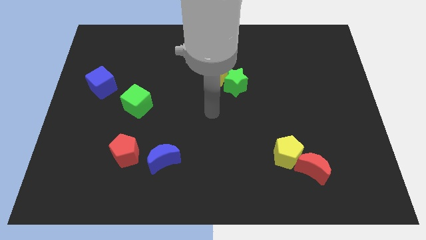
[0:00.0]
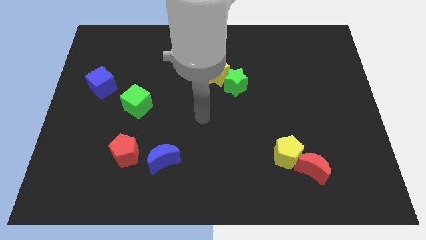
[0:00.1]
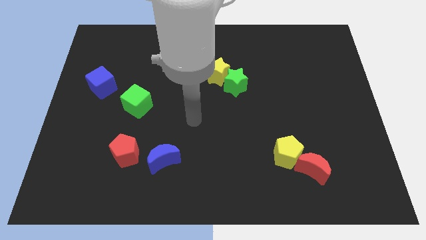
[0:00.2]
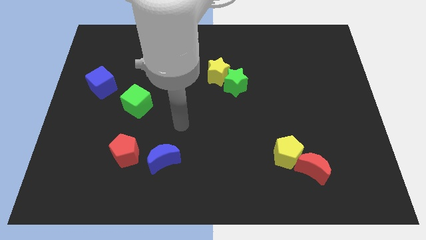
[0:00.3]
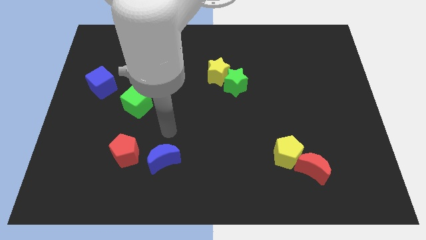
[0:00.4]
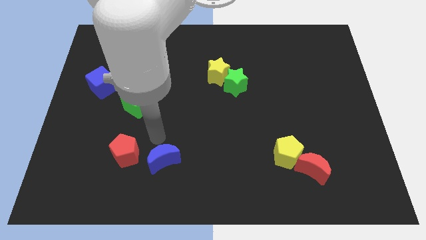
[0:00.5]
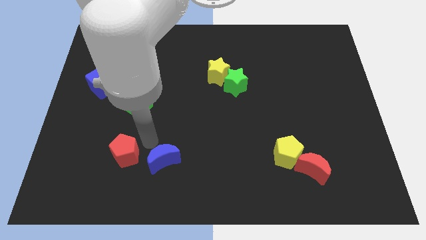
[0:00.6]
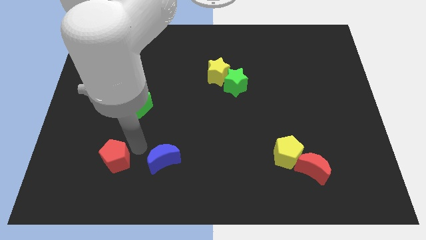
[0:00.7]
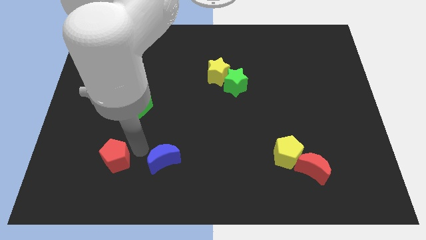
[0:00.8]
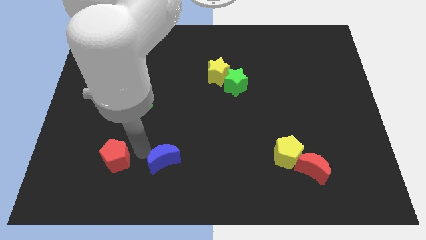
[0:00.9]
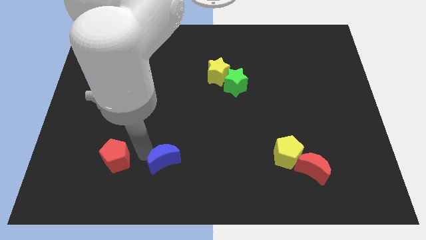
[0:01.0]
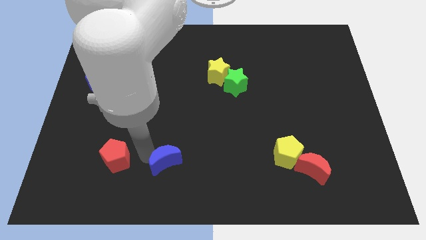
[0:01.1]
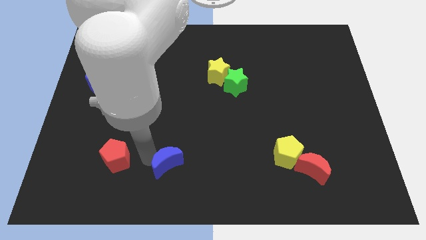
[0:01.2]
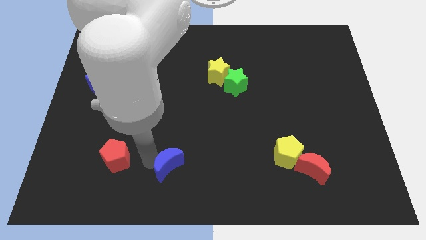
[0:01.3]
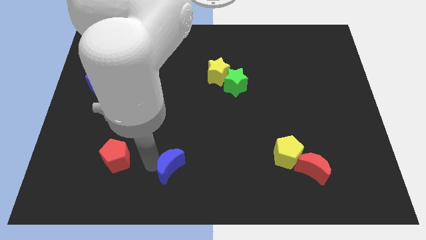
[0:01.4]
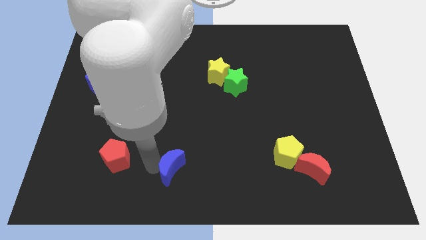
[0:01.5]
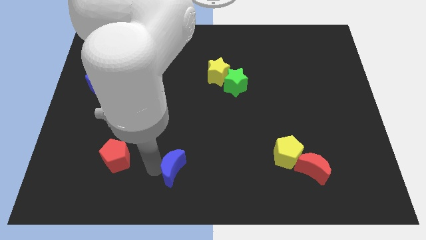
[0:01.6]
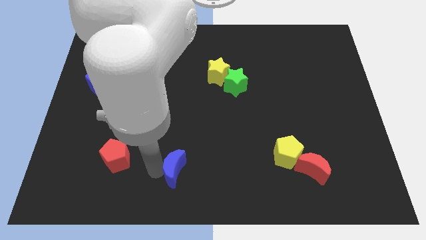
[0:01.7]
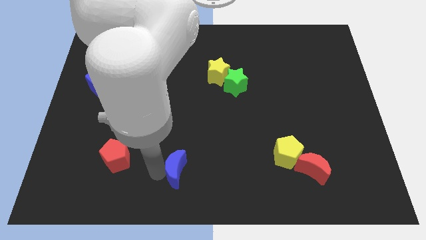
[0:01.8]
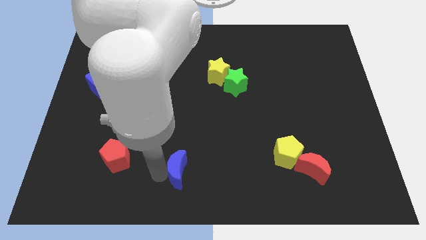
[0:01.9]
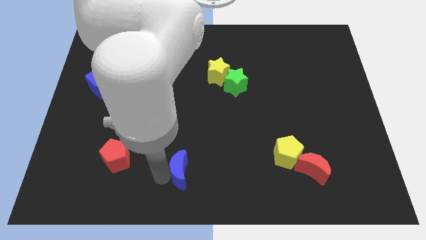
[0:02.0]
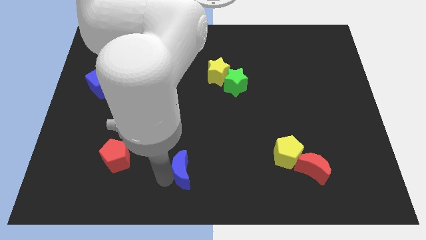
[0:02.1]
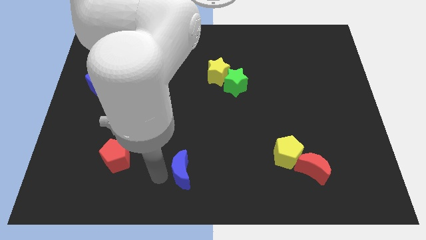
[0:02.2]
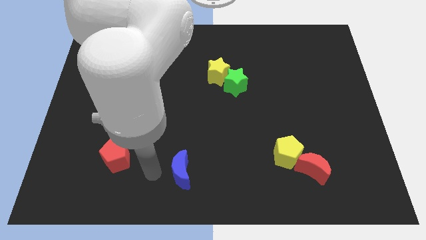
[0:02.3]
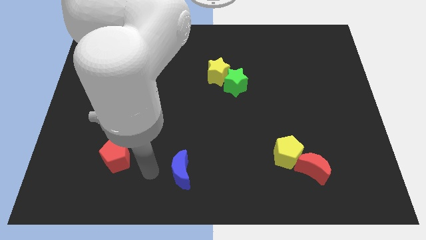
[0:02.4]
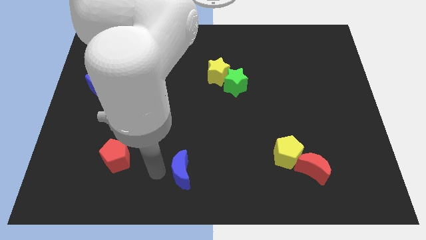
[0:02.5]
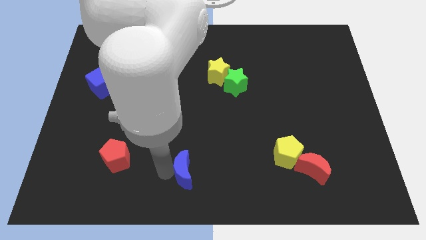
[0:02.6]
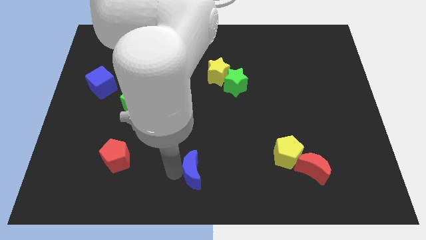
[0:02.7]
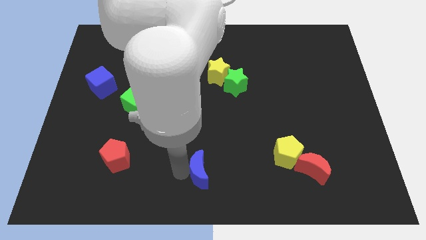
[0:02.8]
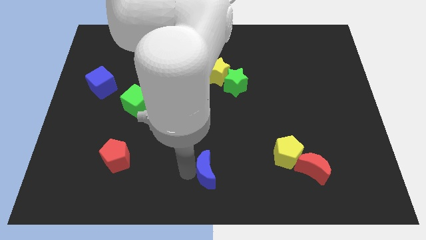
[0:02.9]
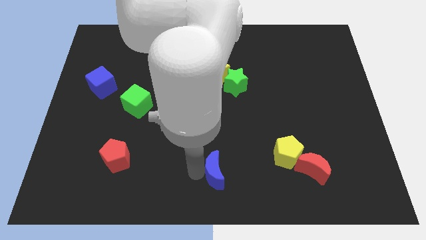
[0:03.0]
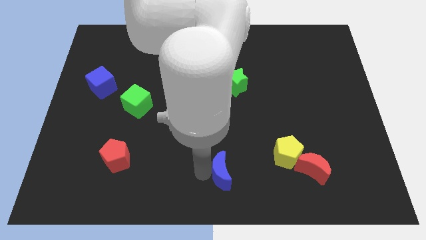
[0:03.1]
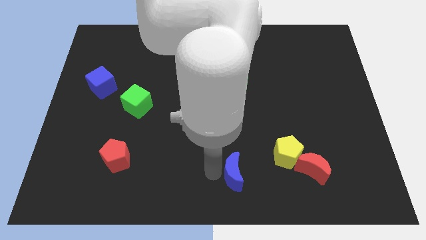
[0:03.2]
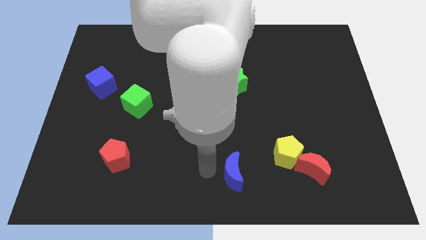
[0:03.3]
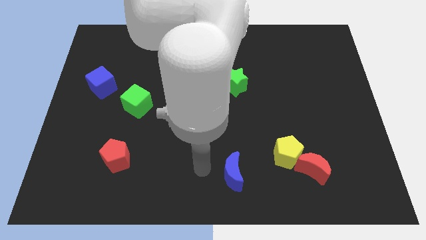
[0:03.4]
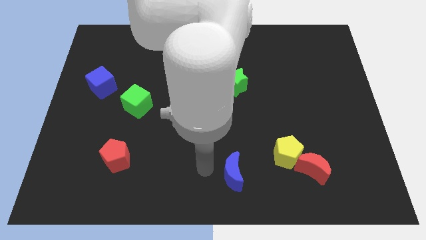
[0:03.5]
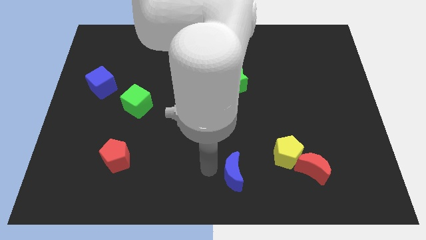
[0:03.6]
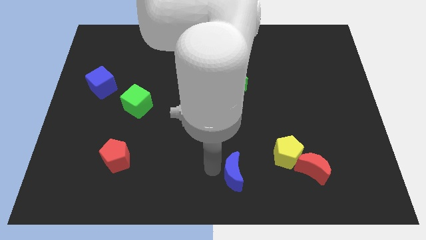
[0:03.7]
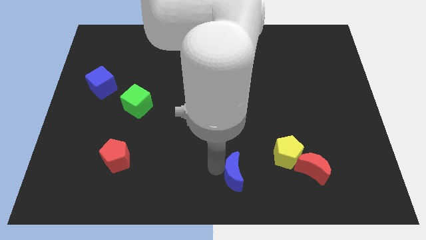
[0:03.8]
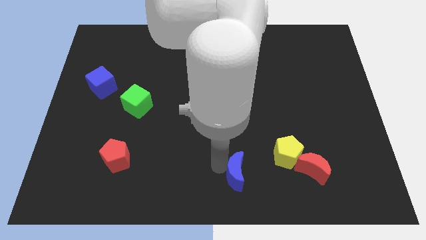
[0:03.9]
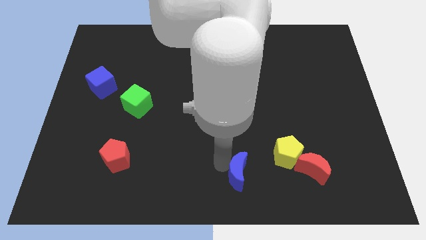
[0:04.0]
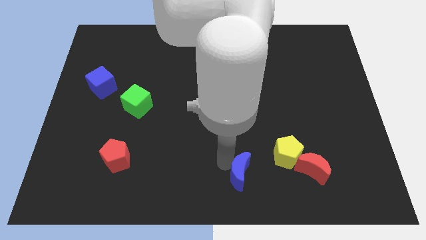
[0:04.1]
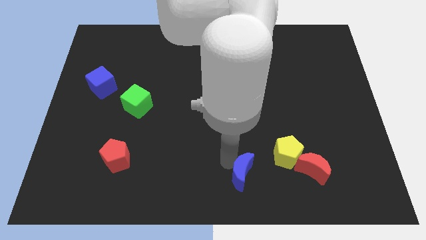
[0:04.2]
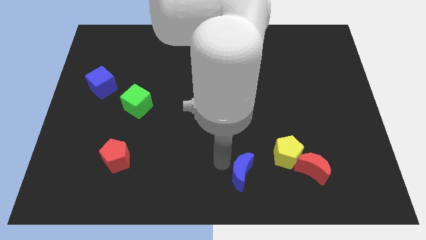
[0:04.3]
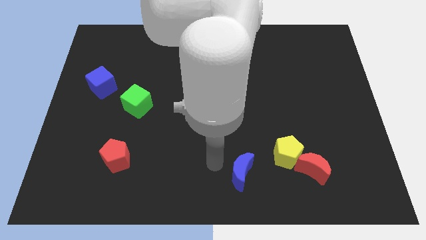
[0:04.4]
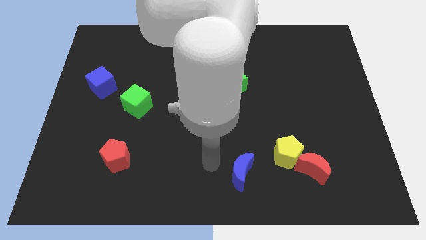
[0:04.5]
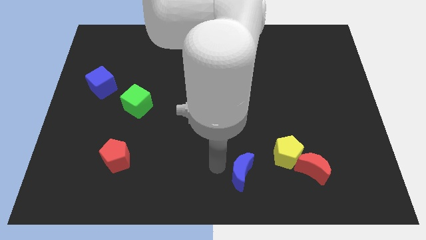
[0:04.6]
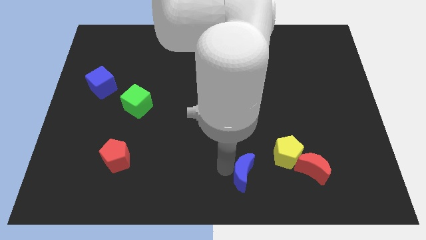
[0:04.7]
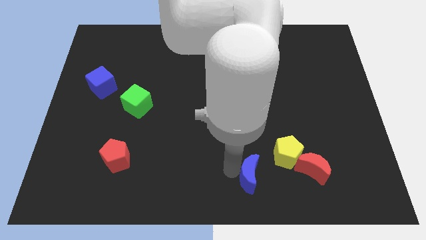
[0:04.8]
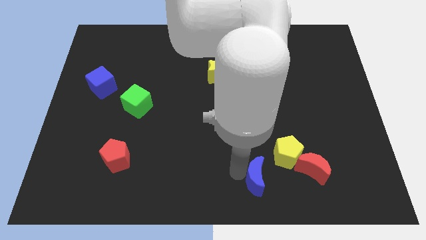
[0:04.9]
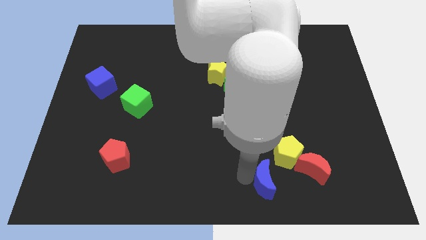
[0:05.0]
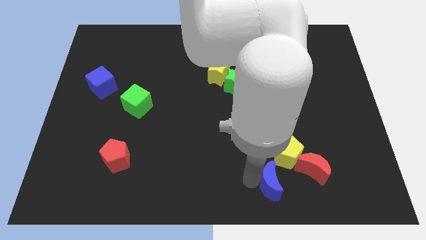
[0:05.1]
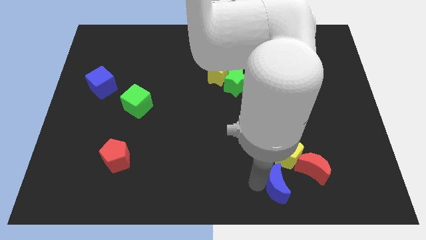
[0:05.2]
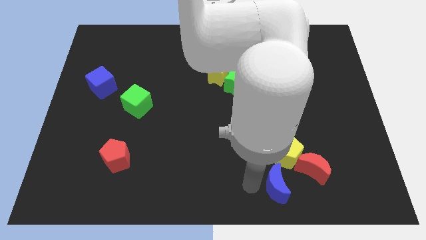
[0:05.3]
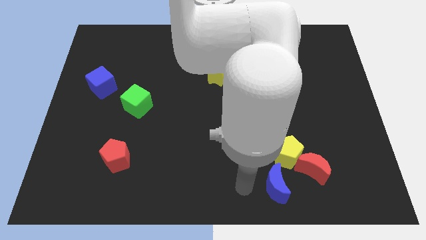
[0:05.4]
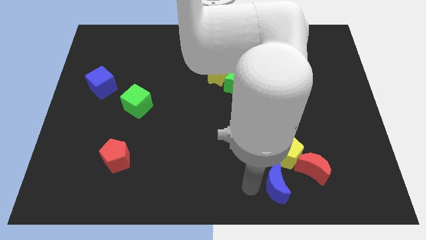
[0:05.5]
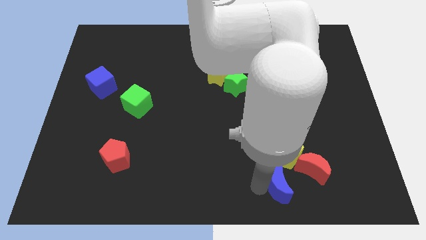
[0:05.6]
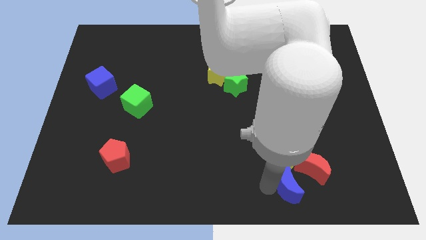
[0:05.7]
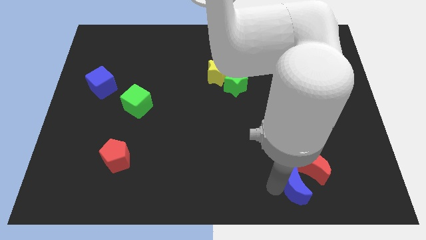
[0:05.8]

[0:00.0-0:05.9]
push the blue moon to the red moon

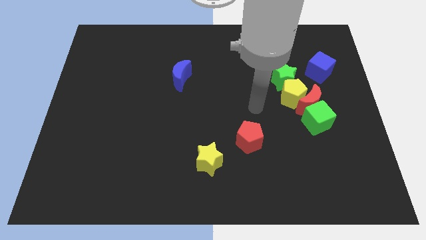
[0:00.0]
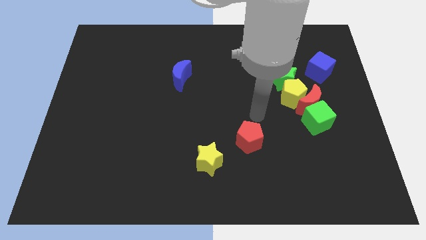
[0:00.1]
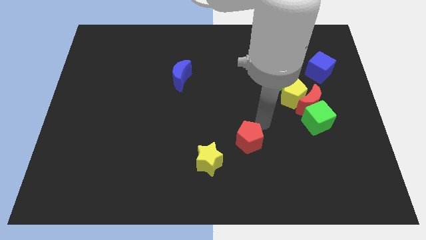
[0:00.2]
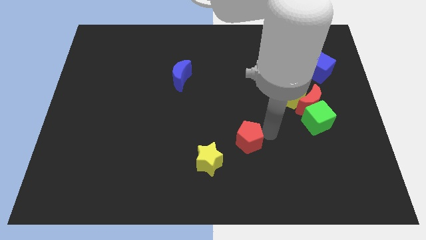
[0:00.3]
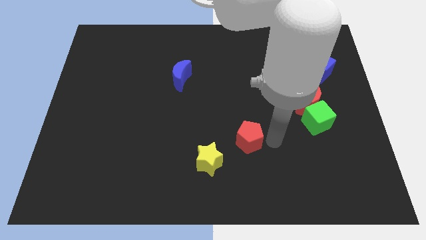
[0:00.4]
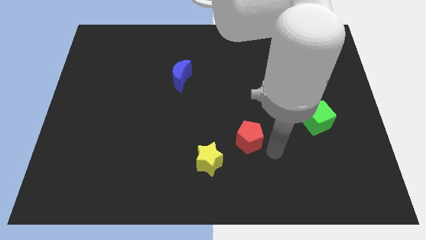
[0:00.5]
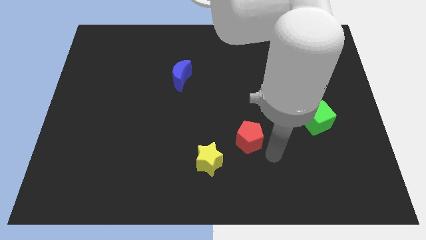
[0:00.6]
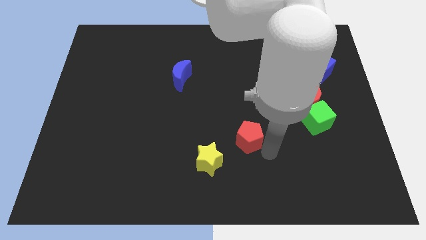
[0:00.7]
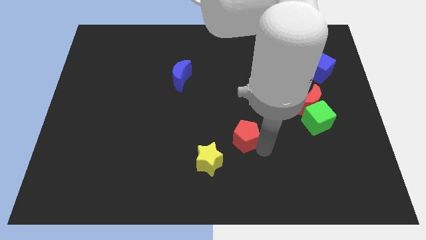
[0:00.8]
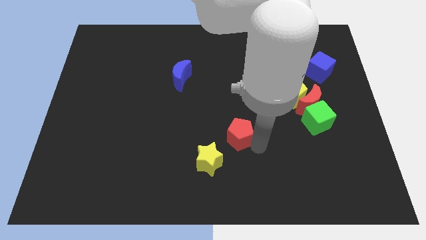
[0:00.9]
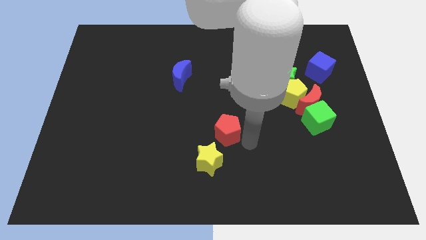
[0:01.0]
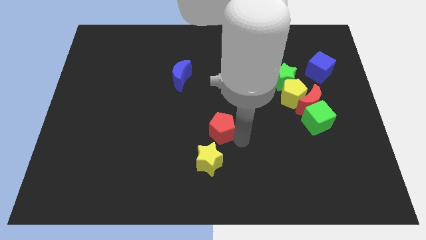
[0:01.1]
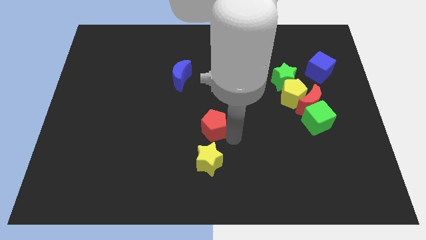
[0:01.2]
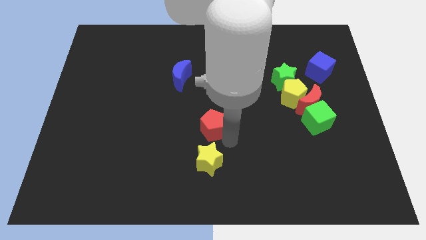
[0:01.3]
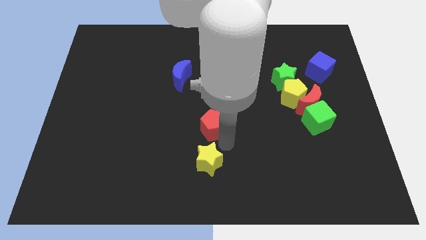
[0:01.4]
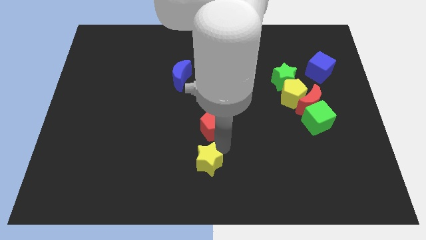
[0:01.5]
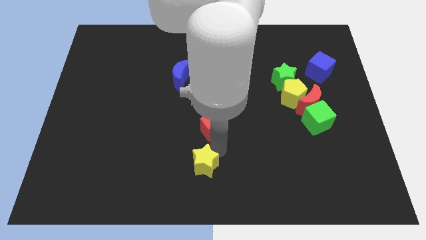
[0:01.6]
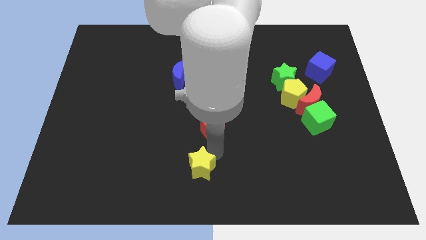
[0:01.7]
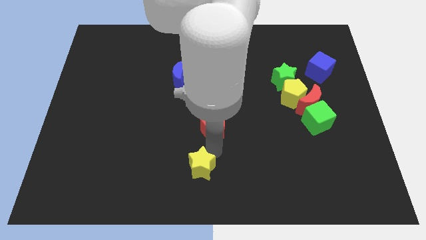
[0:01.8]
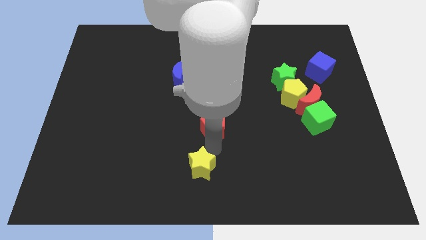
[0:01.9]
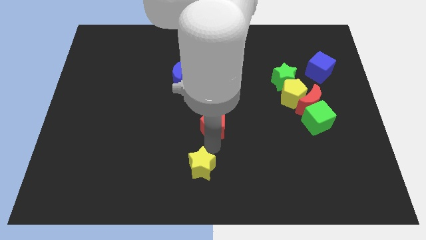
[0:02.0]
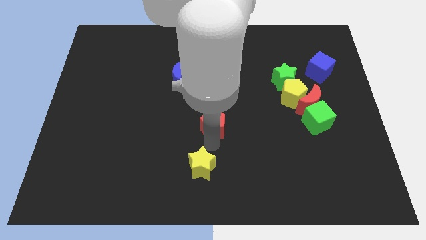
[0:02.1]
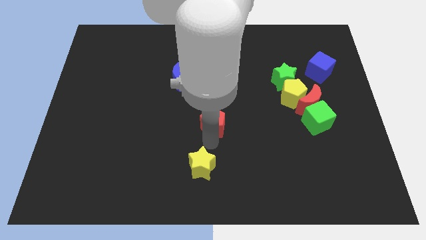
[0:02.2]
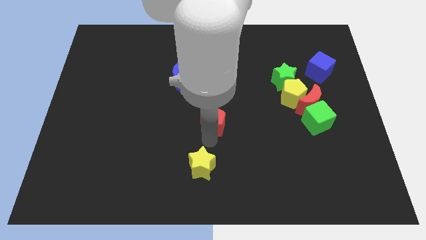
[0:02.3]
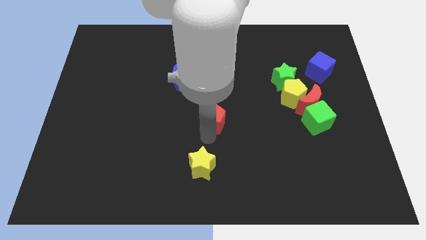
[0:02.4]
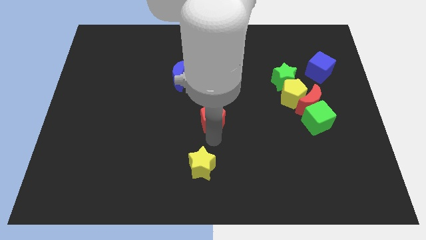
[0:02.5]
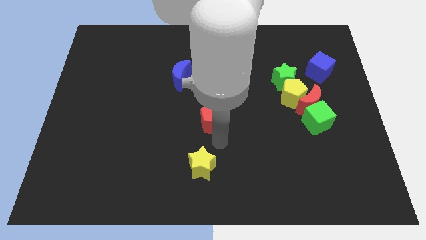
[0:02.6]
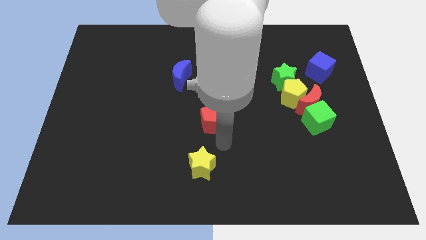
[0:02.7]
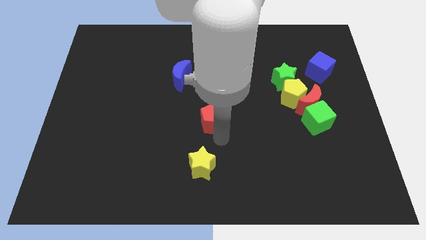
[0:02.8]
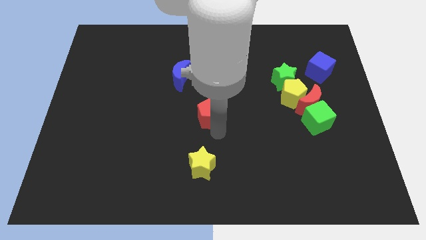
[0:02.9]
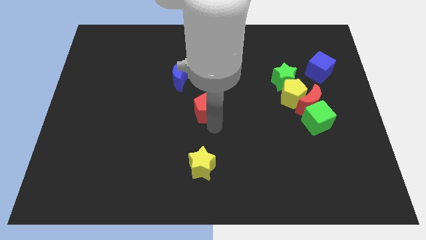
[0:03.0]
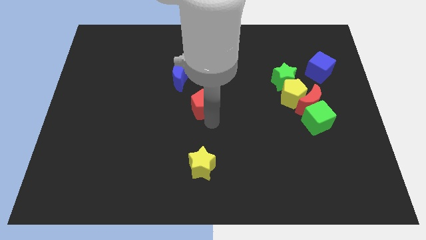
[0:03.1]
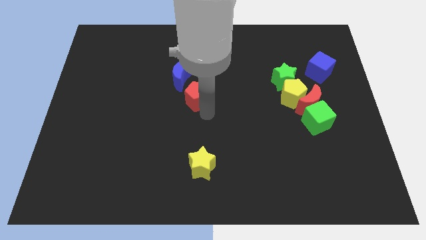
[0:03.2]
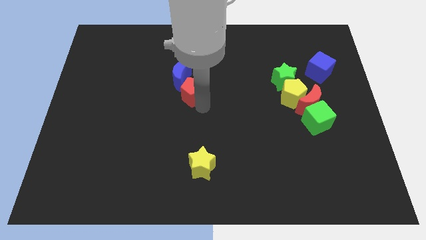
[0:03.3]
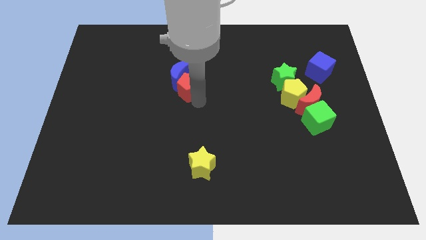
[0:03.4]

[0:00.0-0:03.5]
move the red pentagon next to the blue moon
